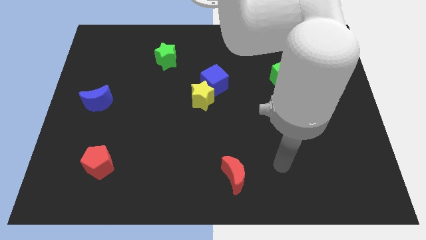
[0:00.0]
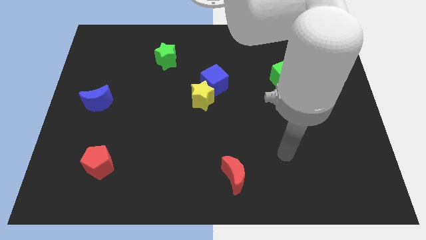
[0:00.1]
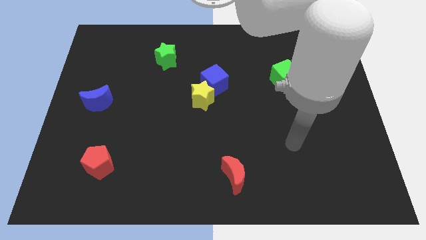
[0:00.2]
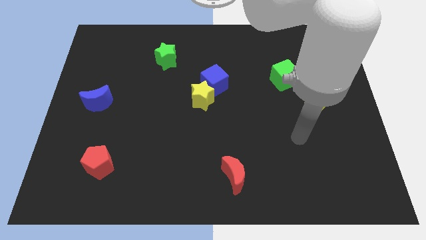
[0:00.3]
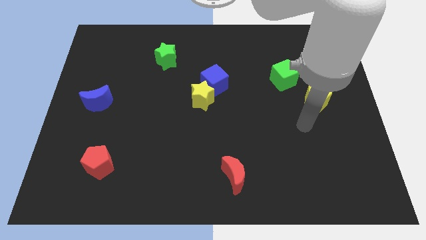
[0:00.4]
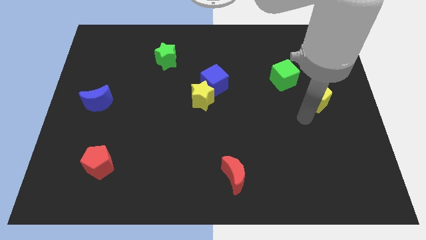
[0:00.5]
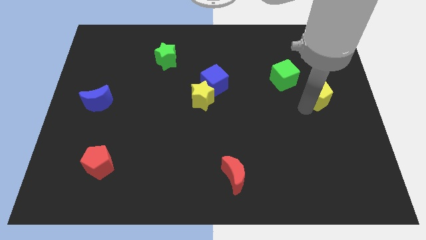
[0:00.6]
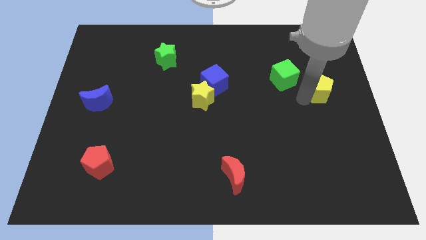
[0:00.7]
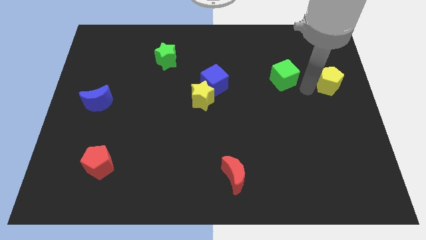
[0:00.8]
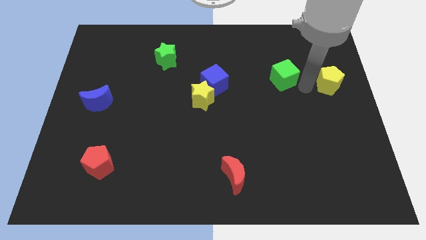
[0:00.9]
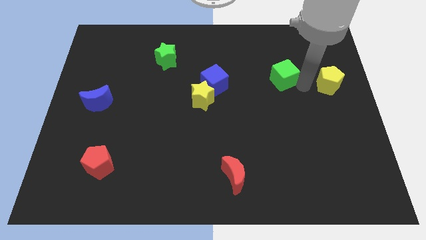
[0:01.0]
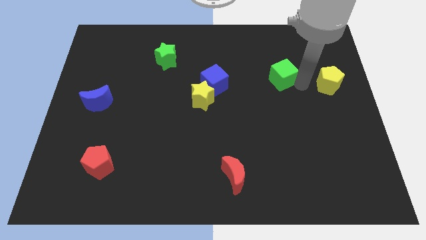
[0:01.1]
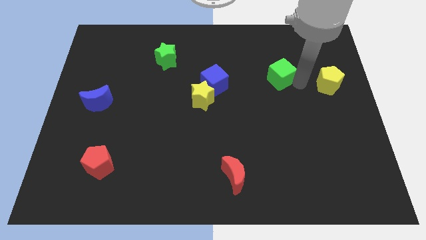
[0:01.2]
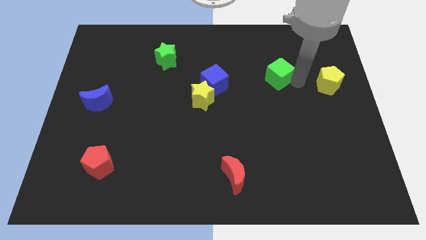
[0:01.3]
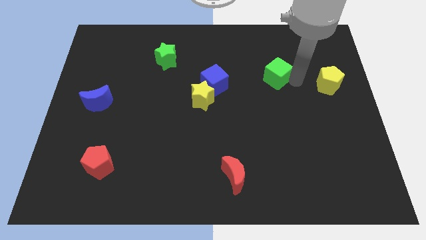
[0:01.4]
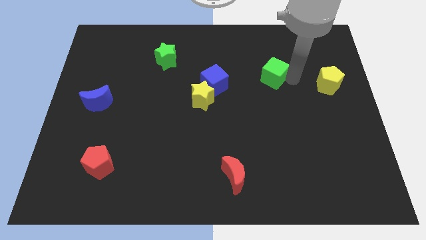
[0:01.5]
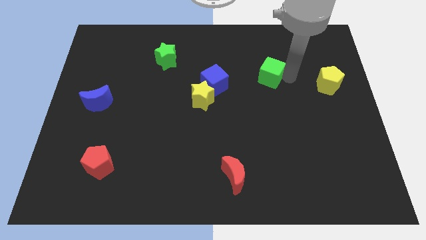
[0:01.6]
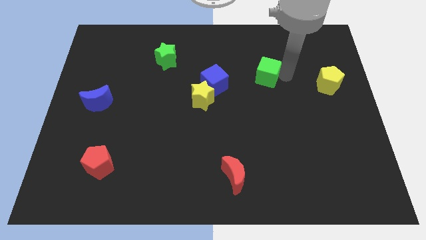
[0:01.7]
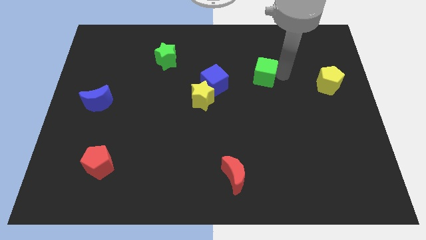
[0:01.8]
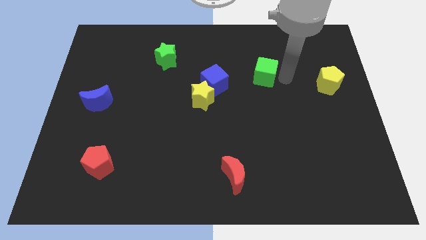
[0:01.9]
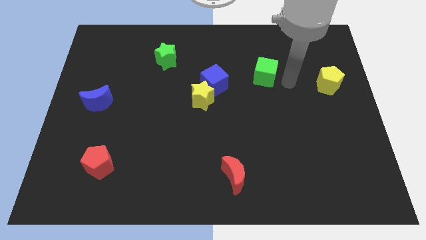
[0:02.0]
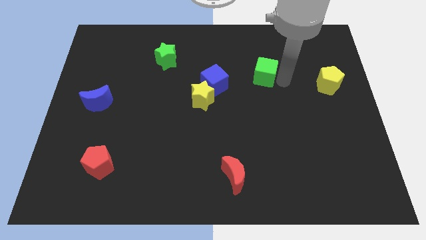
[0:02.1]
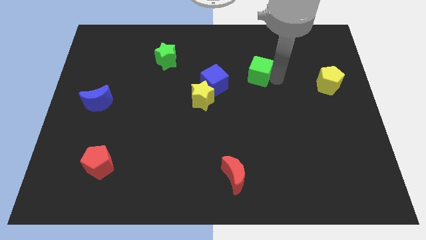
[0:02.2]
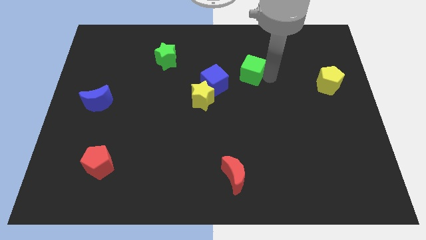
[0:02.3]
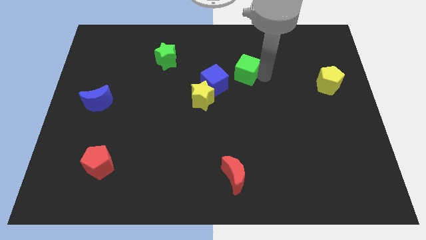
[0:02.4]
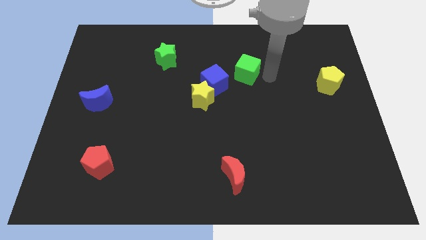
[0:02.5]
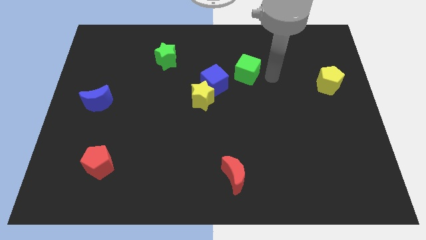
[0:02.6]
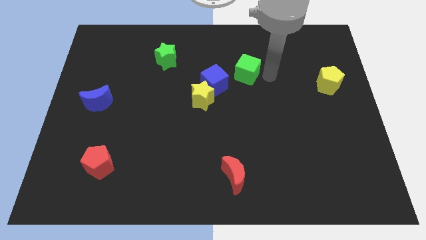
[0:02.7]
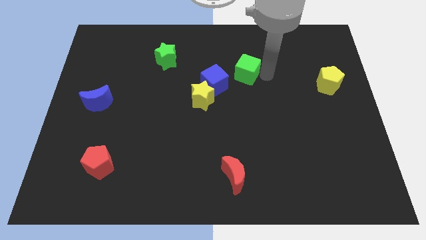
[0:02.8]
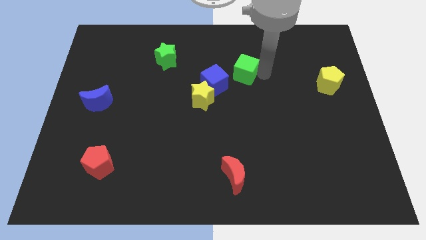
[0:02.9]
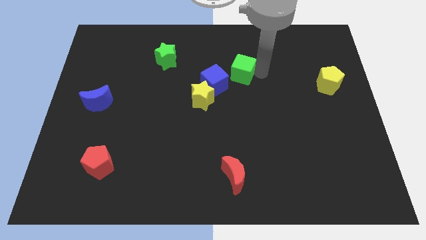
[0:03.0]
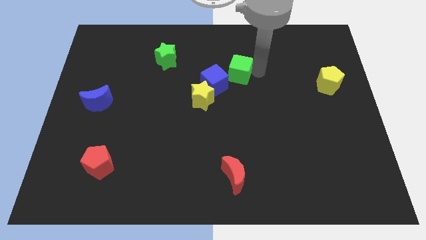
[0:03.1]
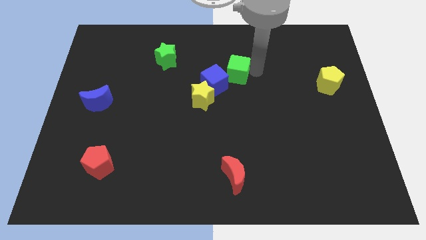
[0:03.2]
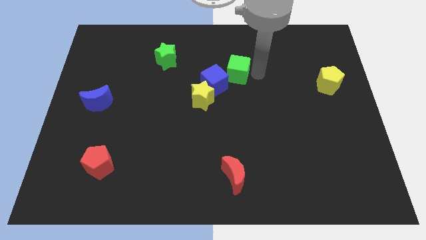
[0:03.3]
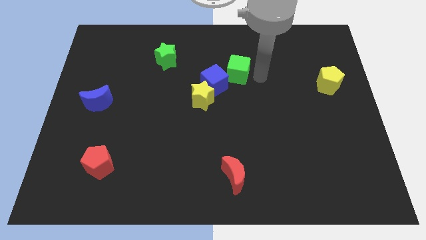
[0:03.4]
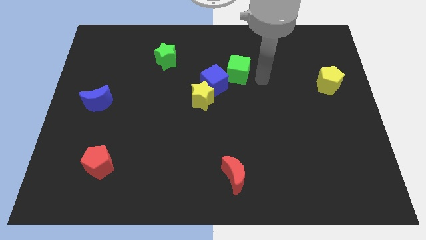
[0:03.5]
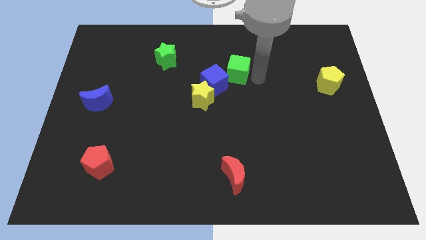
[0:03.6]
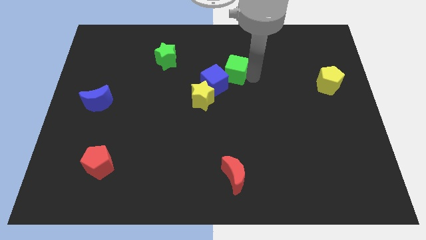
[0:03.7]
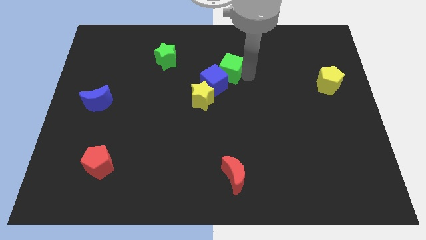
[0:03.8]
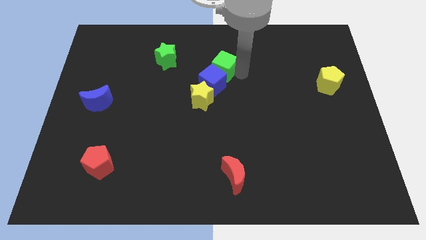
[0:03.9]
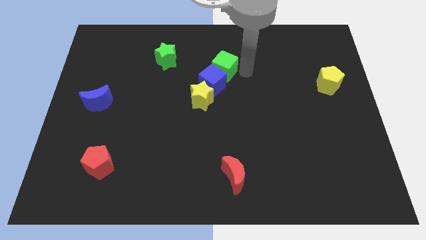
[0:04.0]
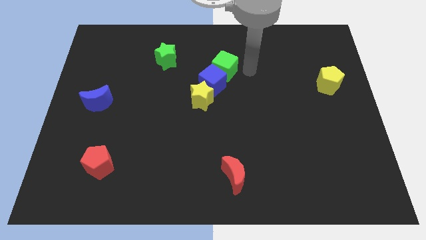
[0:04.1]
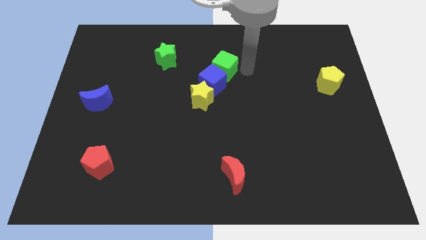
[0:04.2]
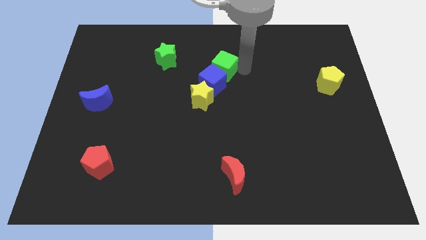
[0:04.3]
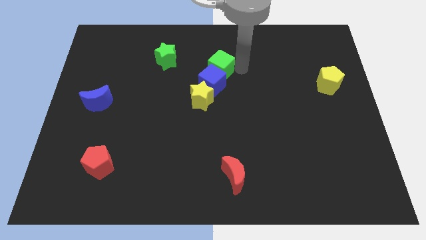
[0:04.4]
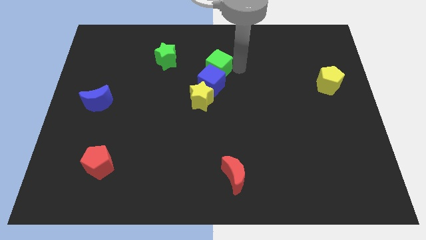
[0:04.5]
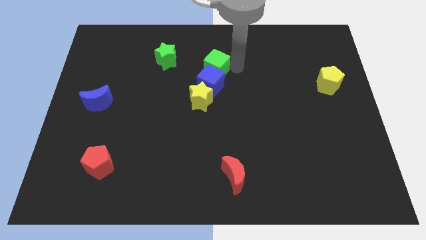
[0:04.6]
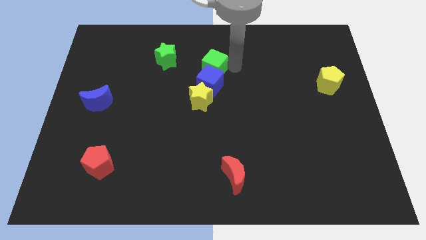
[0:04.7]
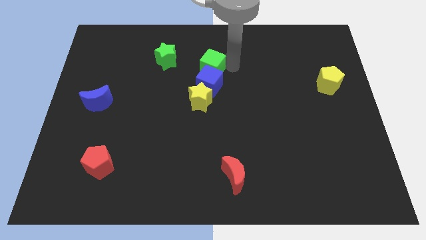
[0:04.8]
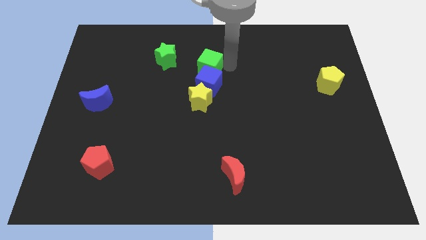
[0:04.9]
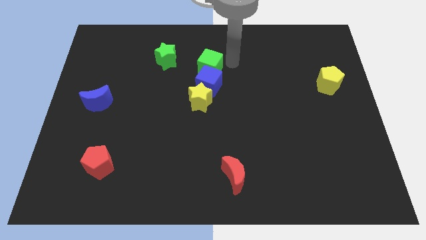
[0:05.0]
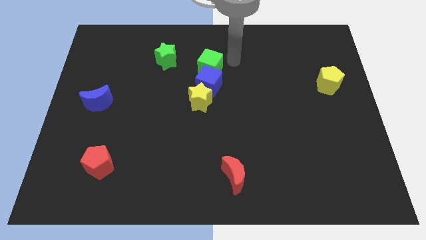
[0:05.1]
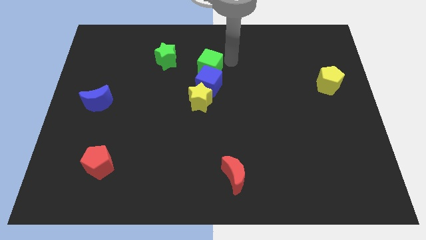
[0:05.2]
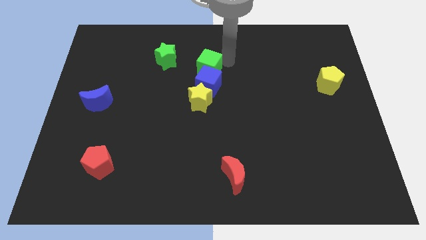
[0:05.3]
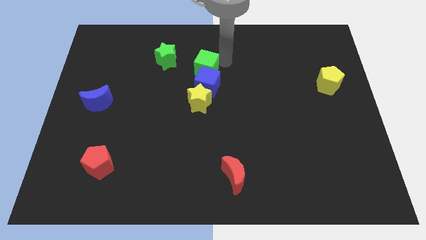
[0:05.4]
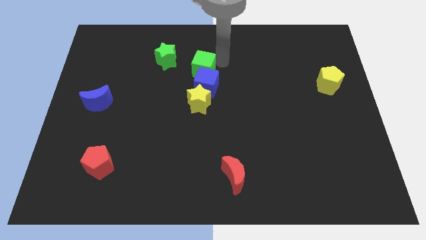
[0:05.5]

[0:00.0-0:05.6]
move the green cube to the bottom right side of the green star

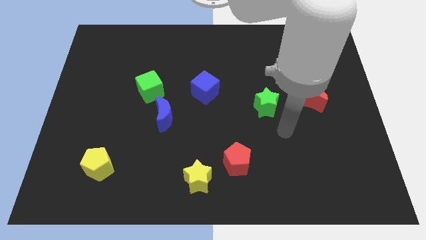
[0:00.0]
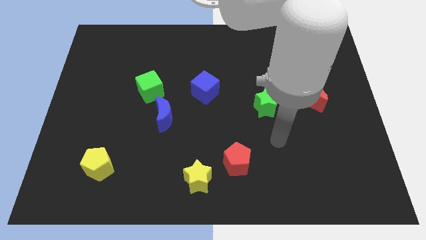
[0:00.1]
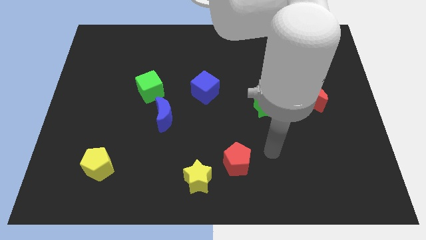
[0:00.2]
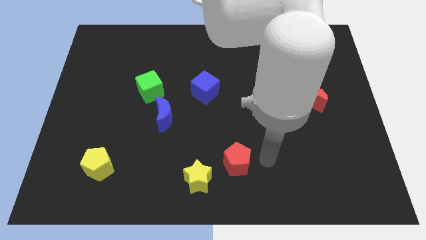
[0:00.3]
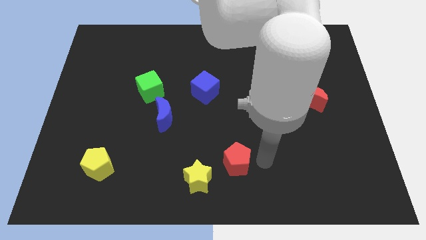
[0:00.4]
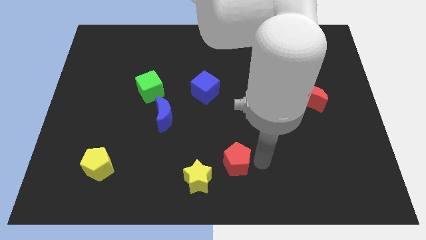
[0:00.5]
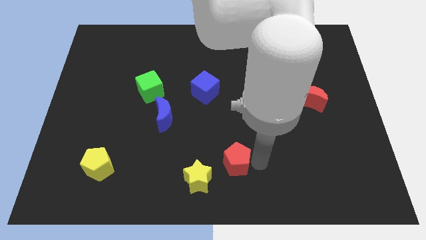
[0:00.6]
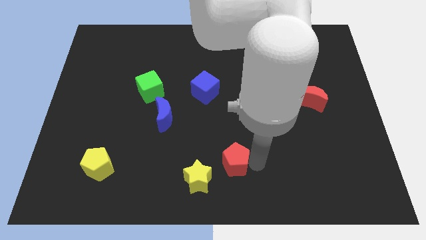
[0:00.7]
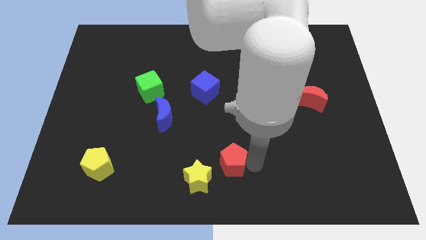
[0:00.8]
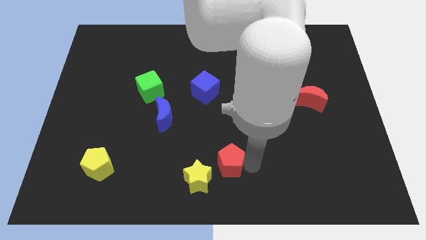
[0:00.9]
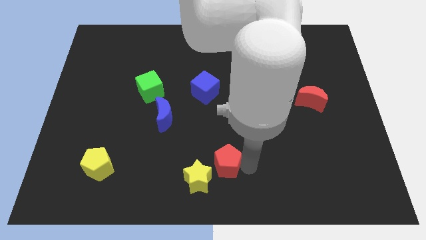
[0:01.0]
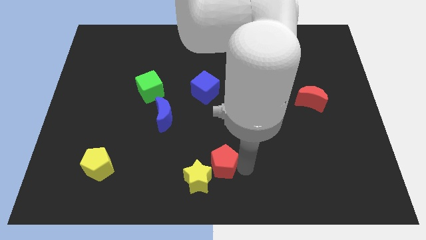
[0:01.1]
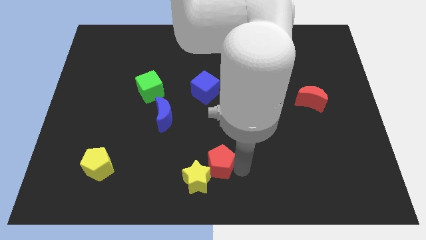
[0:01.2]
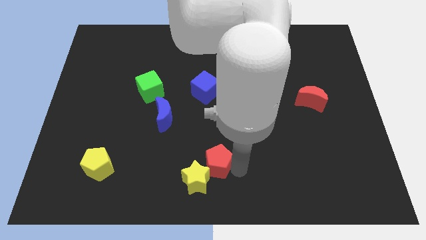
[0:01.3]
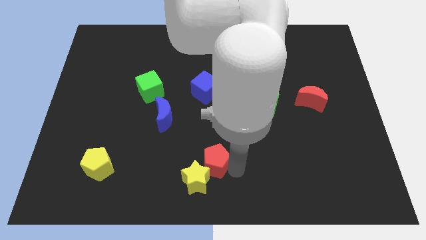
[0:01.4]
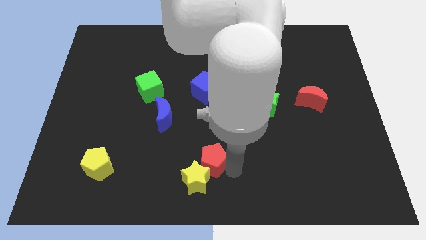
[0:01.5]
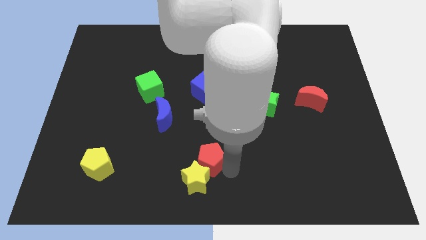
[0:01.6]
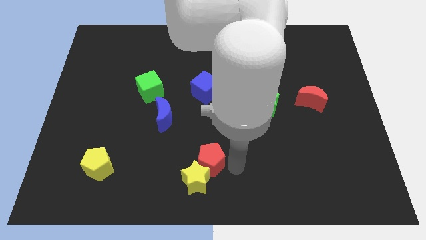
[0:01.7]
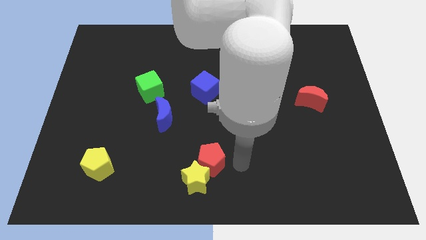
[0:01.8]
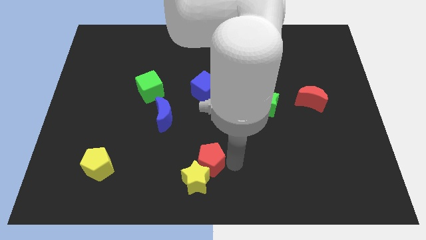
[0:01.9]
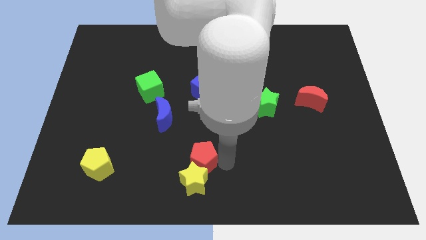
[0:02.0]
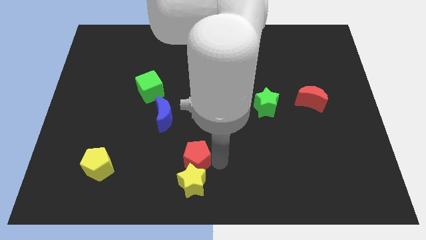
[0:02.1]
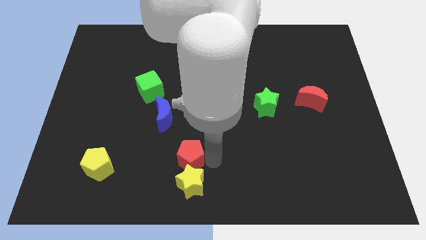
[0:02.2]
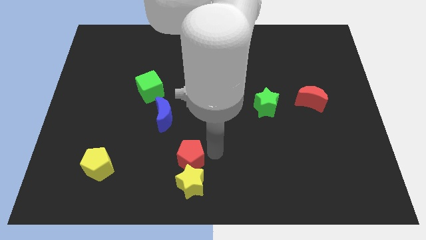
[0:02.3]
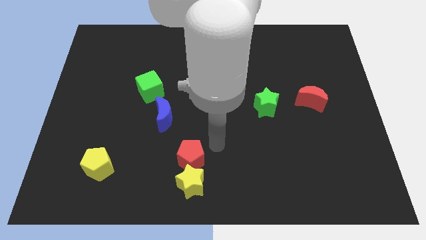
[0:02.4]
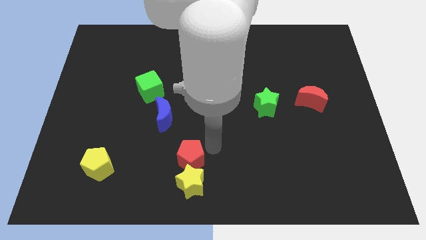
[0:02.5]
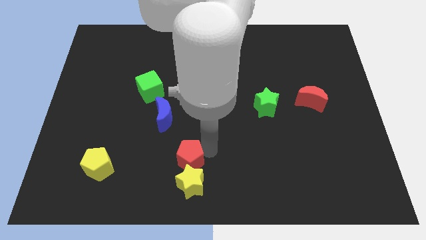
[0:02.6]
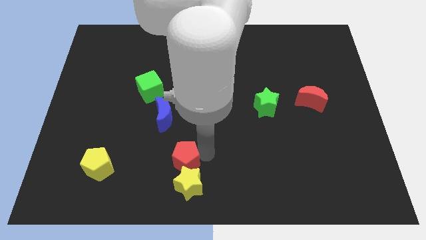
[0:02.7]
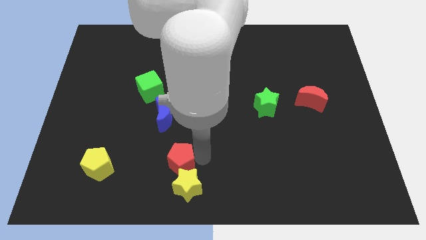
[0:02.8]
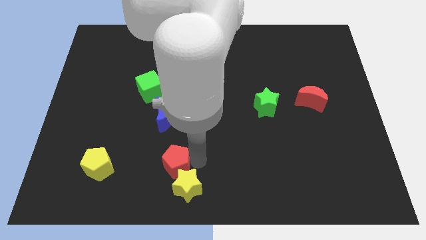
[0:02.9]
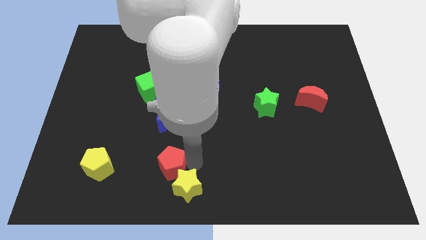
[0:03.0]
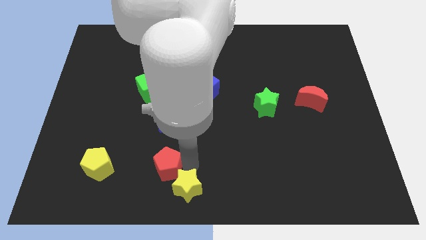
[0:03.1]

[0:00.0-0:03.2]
push the red pentagon left of the yellow star
